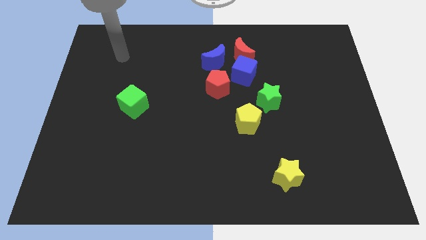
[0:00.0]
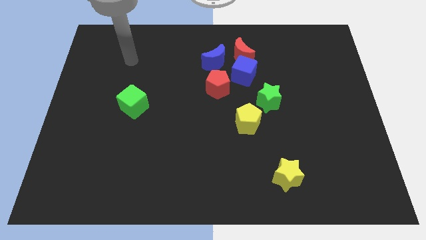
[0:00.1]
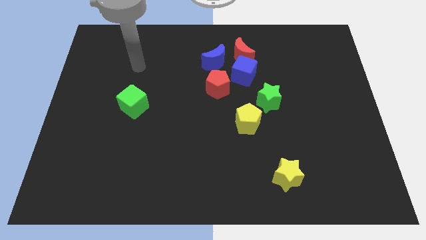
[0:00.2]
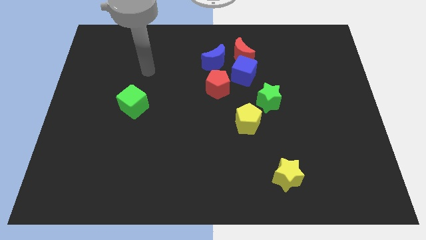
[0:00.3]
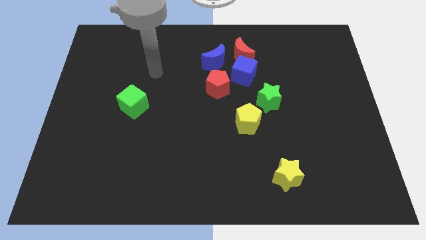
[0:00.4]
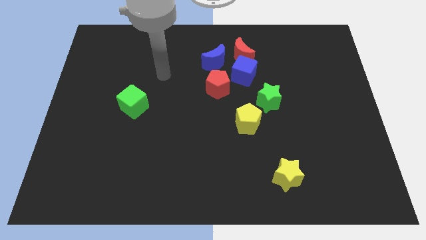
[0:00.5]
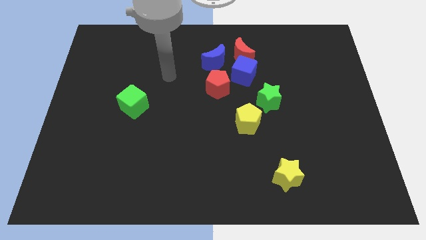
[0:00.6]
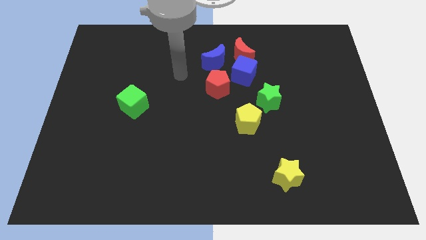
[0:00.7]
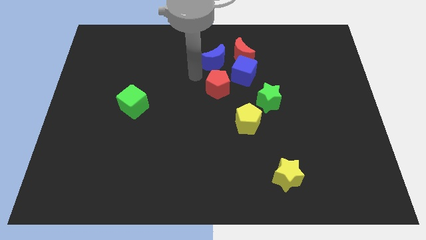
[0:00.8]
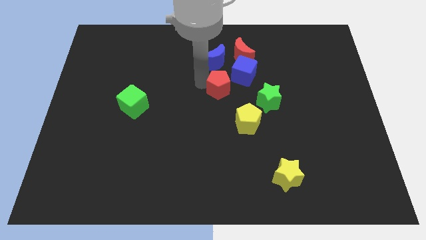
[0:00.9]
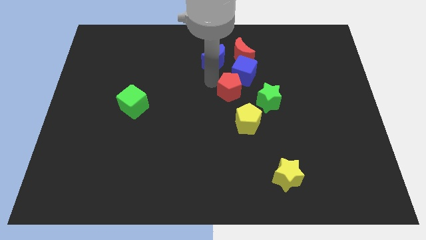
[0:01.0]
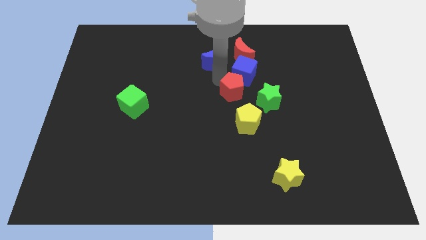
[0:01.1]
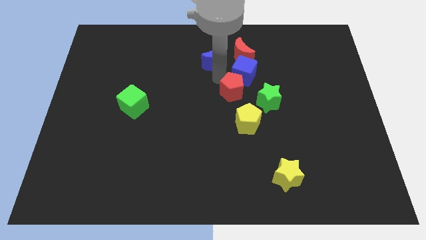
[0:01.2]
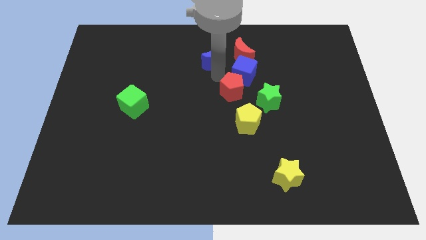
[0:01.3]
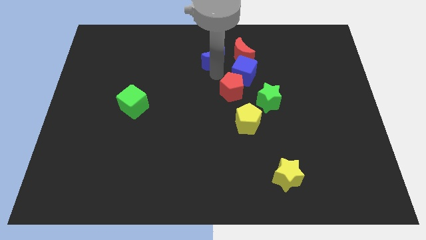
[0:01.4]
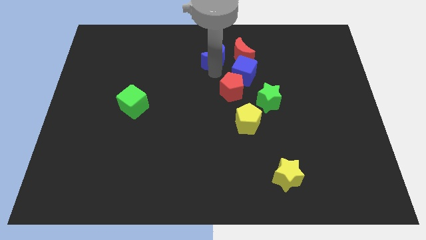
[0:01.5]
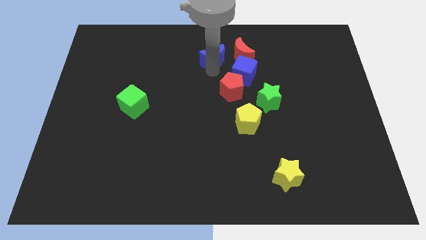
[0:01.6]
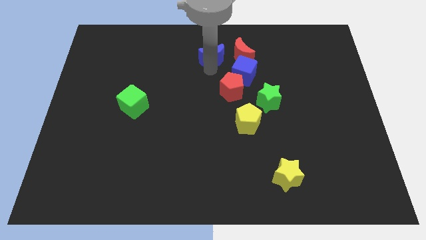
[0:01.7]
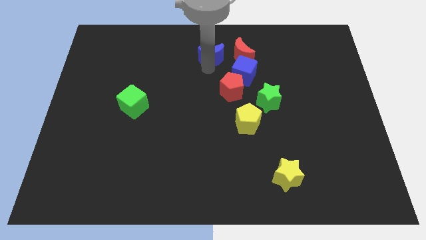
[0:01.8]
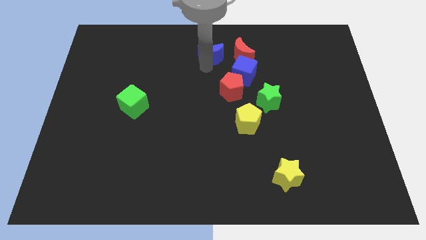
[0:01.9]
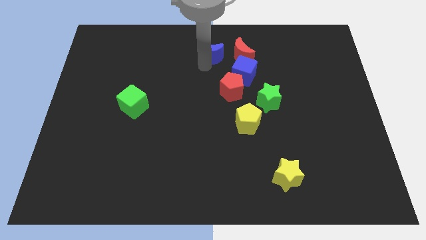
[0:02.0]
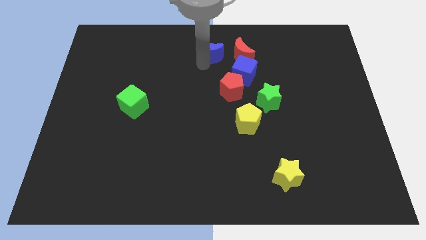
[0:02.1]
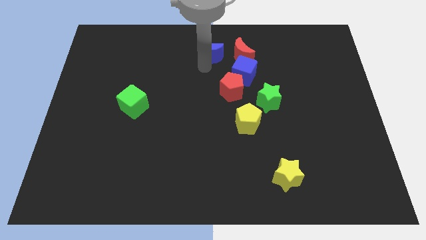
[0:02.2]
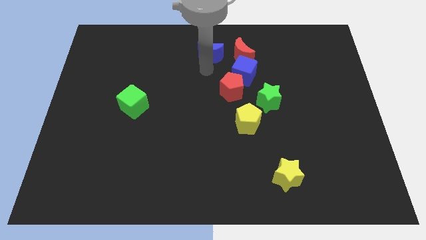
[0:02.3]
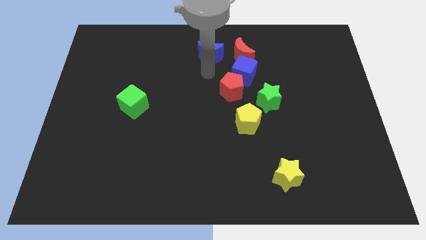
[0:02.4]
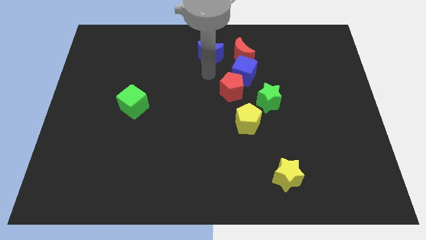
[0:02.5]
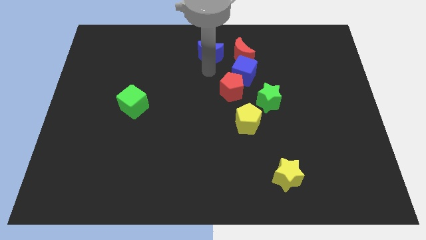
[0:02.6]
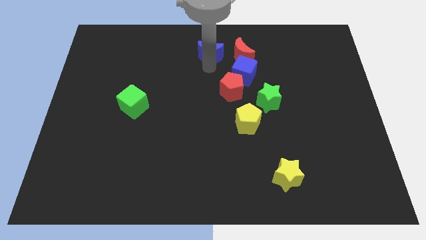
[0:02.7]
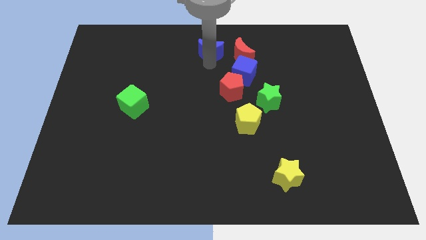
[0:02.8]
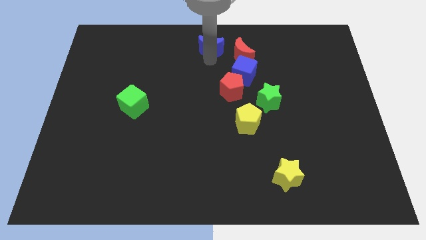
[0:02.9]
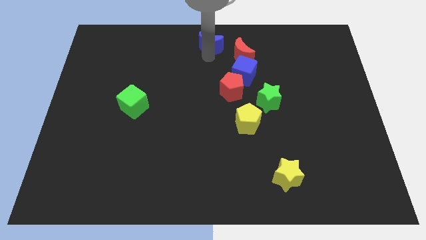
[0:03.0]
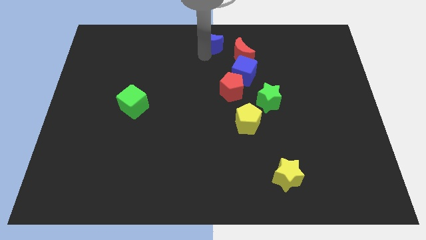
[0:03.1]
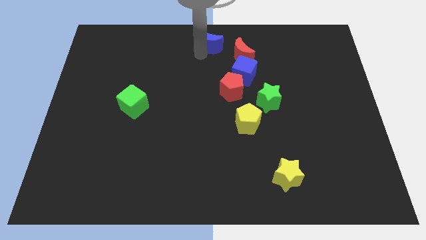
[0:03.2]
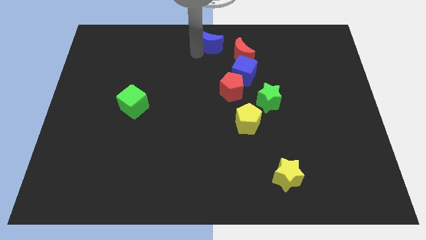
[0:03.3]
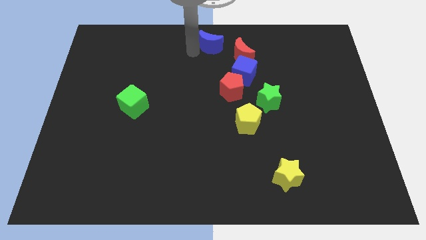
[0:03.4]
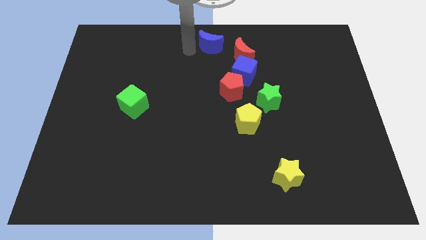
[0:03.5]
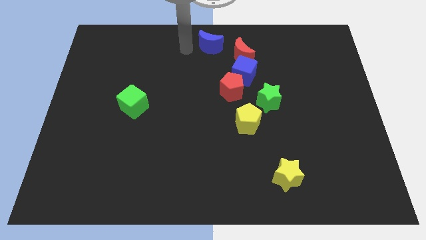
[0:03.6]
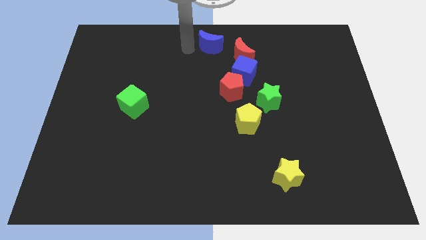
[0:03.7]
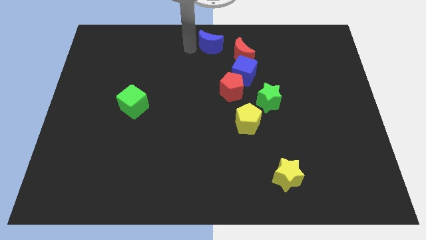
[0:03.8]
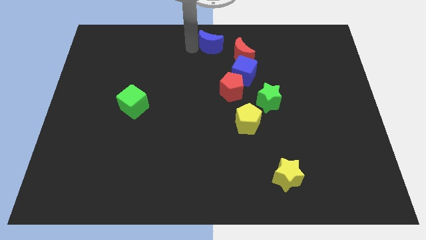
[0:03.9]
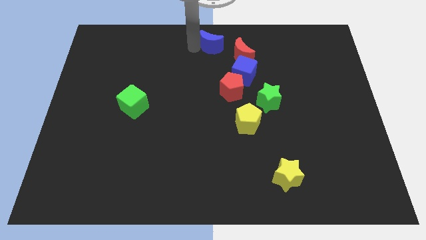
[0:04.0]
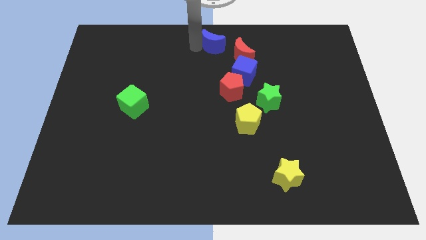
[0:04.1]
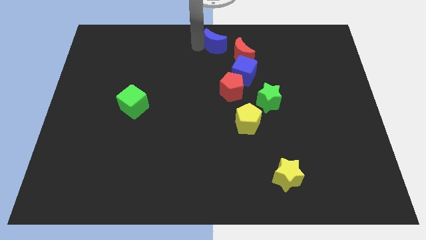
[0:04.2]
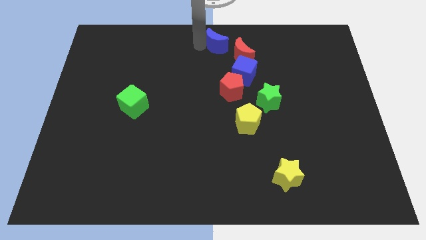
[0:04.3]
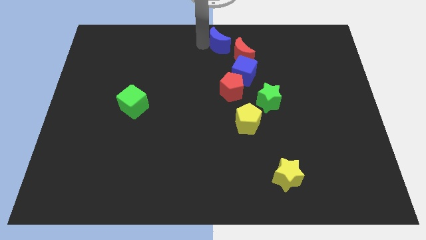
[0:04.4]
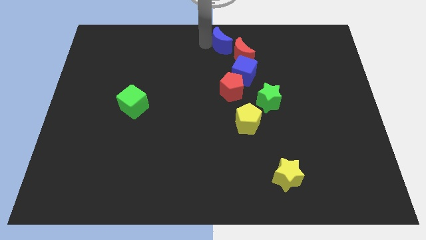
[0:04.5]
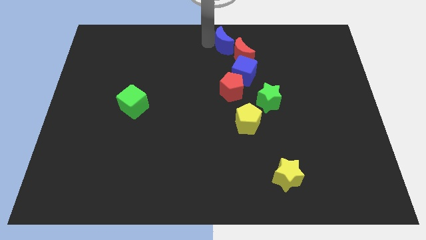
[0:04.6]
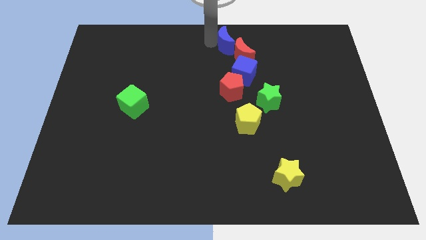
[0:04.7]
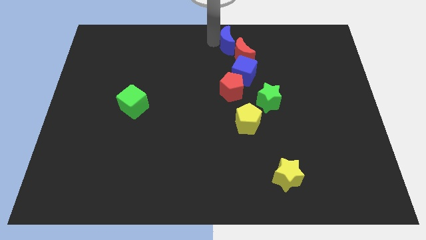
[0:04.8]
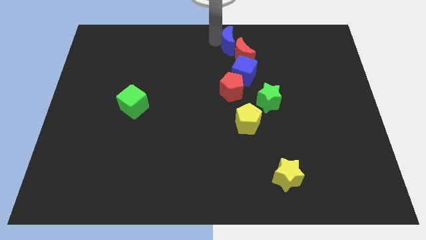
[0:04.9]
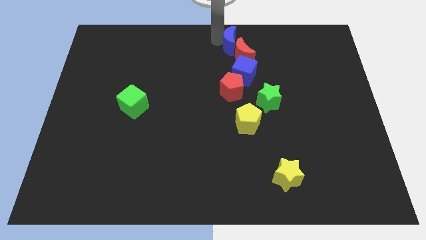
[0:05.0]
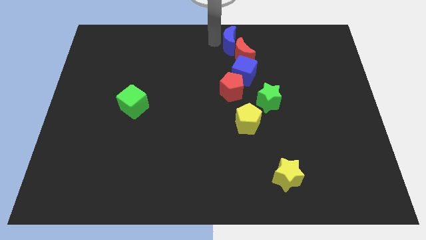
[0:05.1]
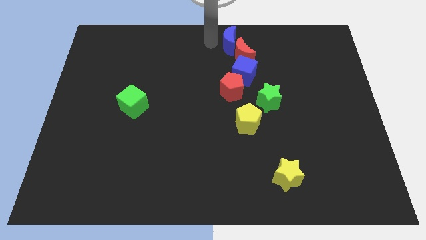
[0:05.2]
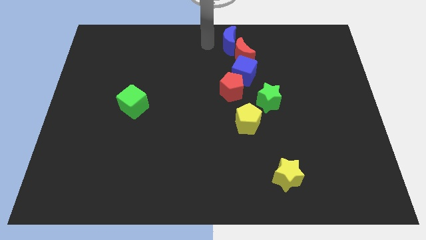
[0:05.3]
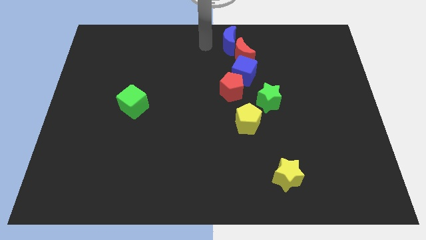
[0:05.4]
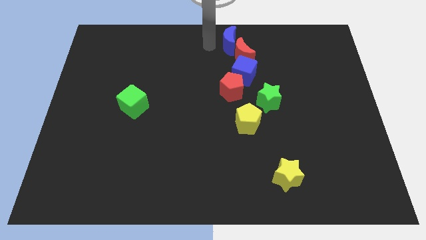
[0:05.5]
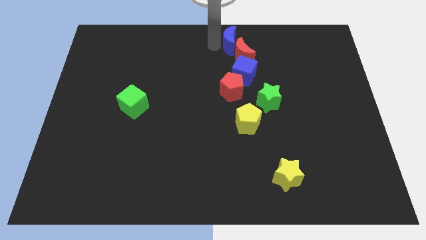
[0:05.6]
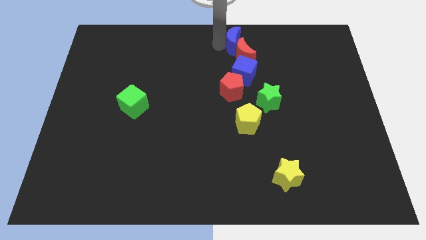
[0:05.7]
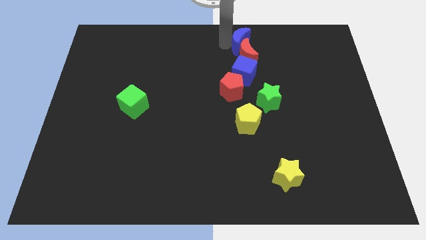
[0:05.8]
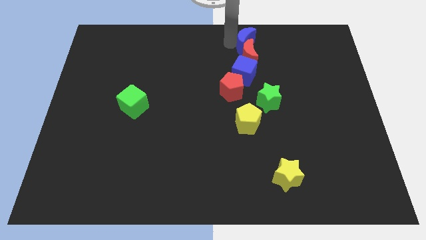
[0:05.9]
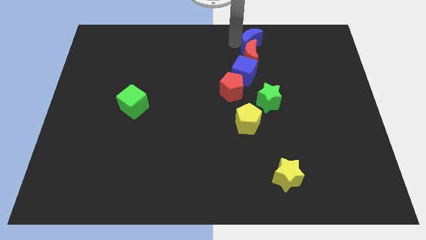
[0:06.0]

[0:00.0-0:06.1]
slightly move the blue moon right

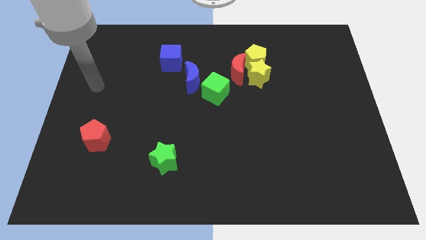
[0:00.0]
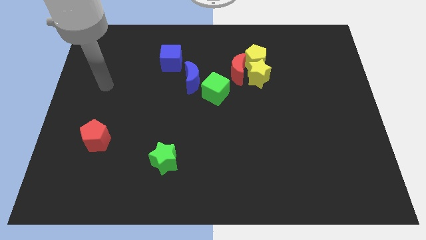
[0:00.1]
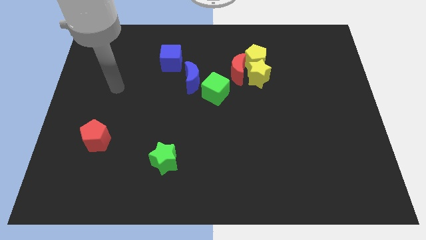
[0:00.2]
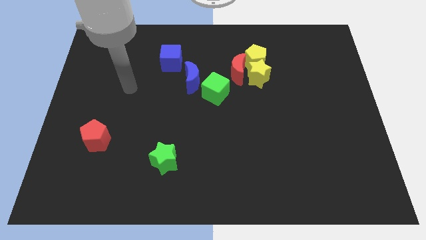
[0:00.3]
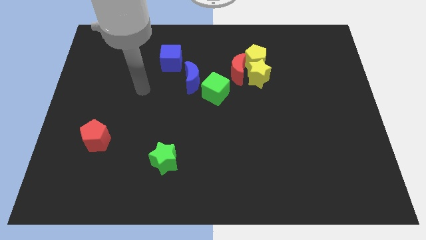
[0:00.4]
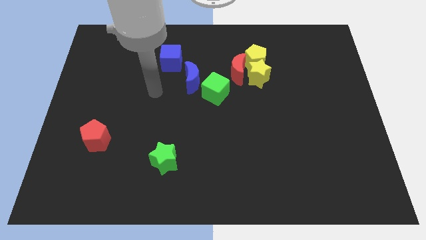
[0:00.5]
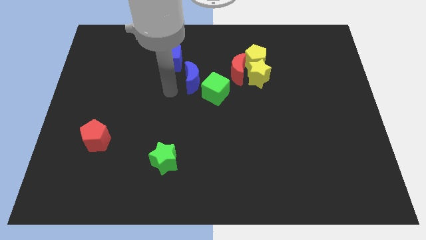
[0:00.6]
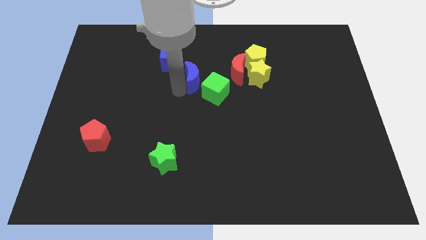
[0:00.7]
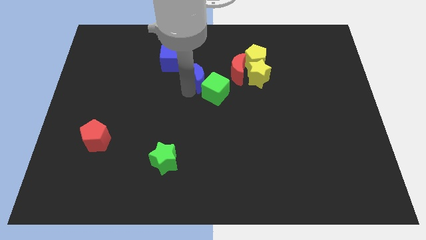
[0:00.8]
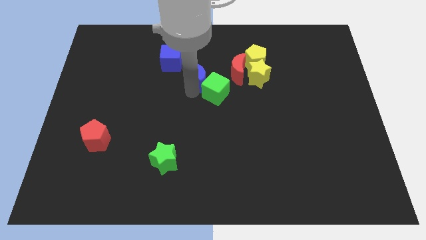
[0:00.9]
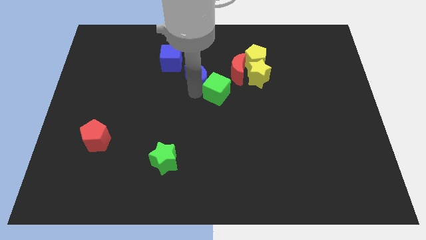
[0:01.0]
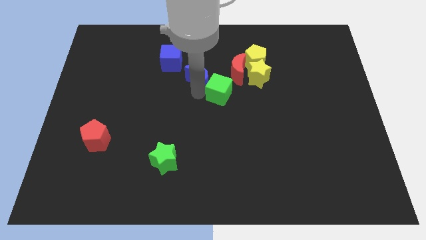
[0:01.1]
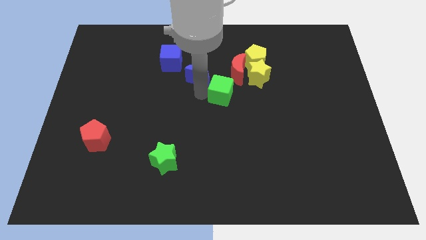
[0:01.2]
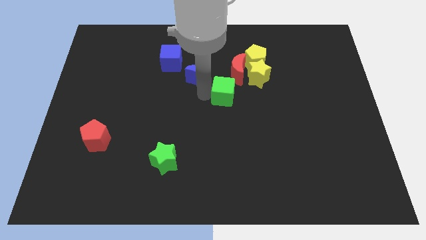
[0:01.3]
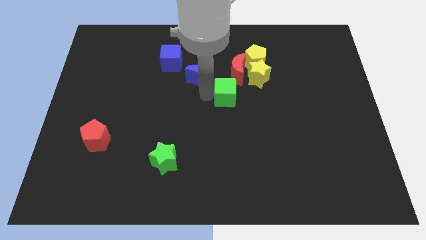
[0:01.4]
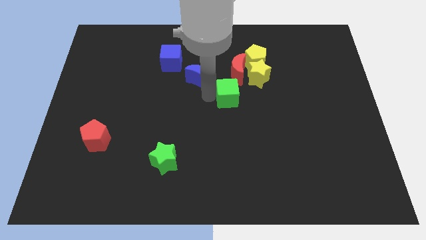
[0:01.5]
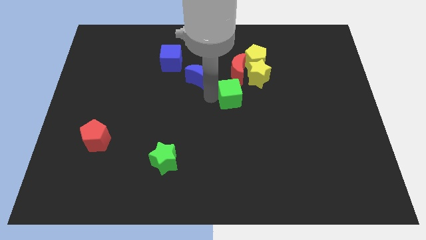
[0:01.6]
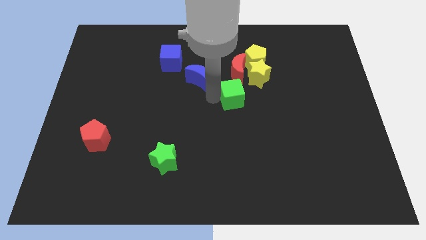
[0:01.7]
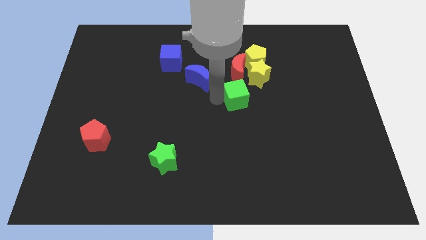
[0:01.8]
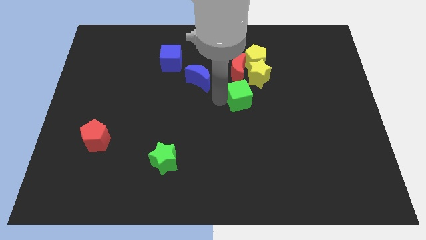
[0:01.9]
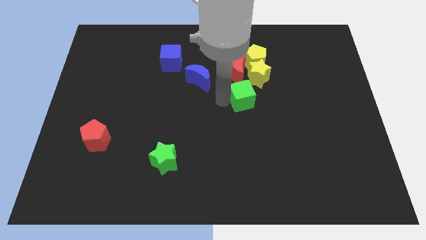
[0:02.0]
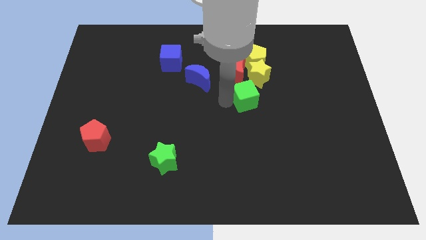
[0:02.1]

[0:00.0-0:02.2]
slide the green cube a bit right

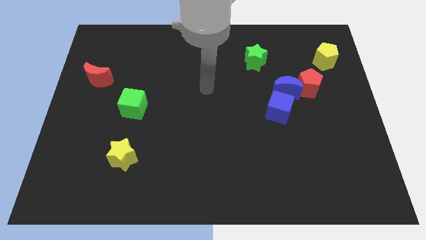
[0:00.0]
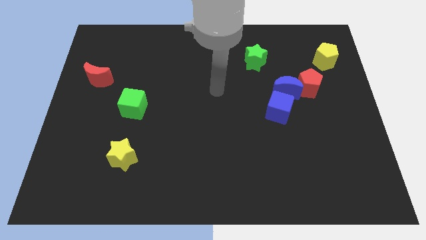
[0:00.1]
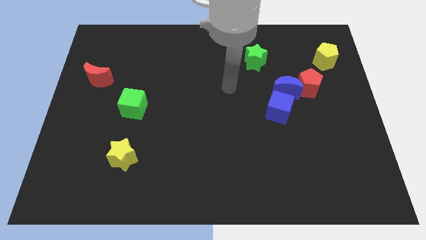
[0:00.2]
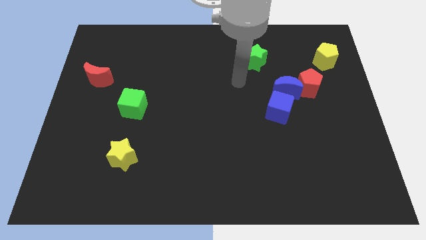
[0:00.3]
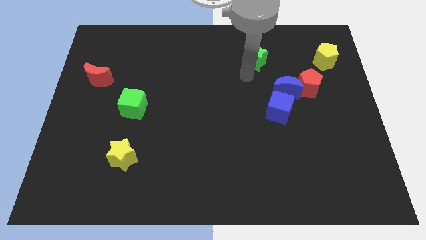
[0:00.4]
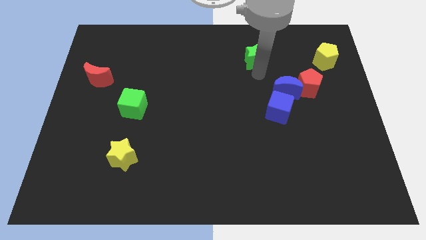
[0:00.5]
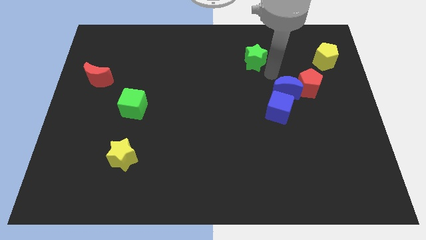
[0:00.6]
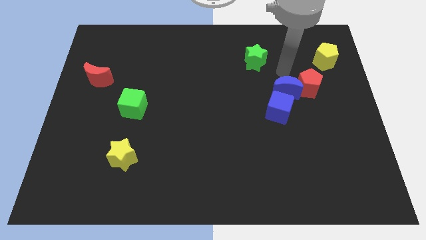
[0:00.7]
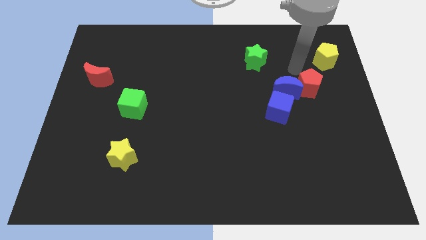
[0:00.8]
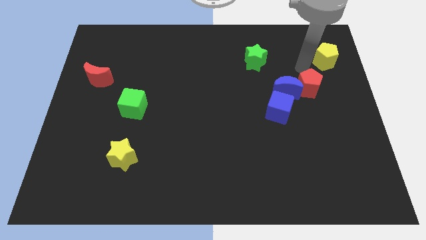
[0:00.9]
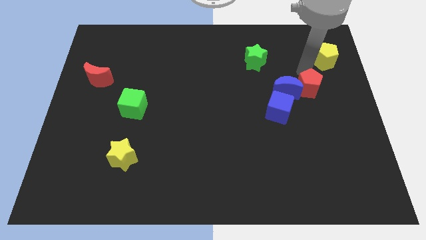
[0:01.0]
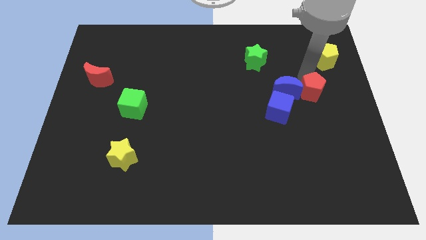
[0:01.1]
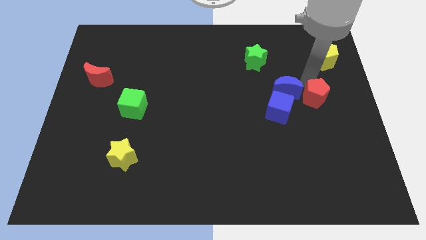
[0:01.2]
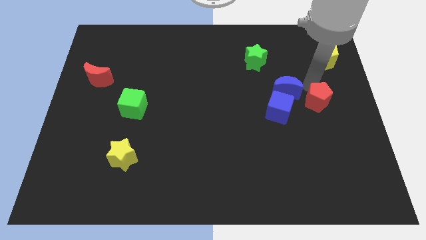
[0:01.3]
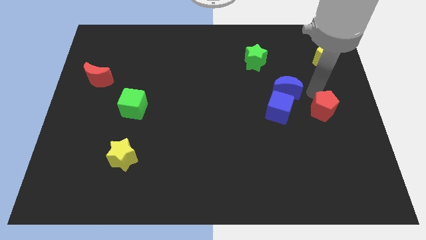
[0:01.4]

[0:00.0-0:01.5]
slightly slide the red pentagon down
